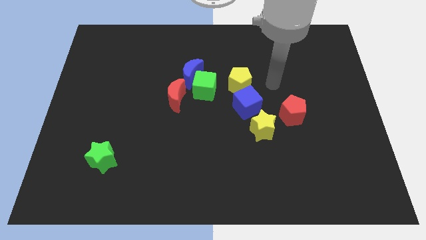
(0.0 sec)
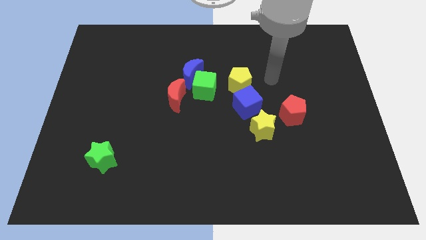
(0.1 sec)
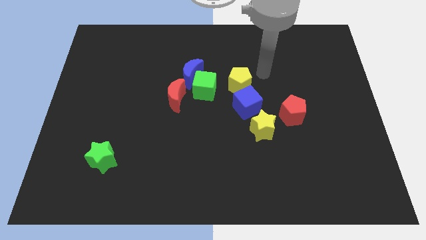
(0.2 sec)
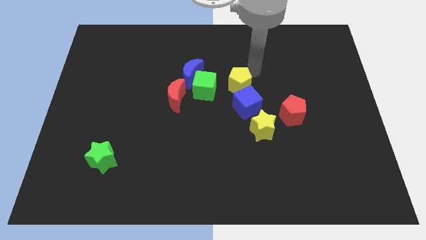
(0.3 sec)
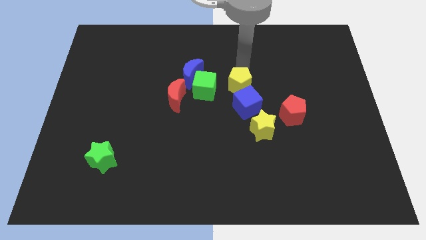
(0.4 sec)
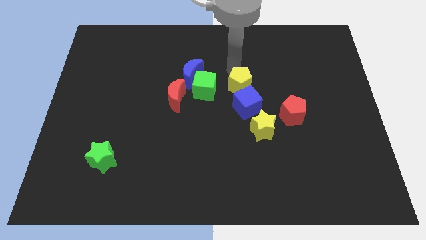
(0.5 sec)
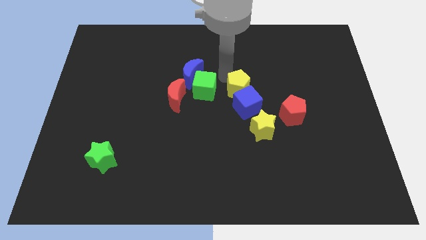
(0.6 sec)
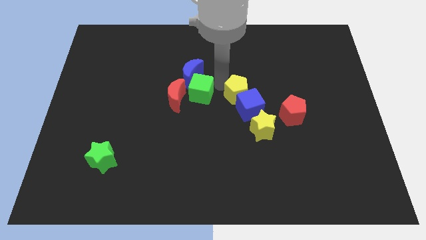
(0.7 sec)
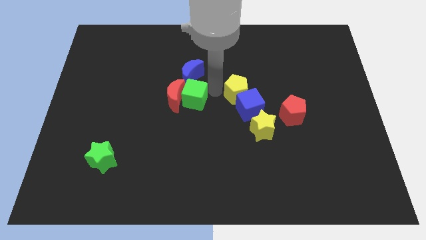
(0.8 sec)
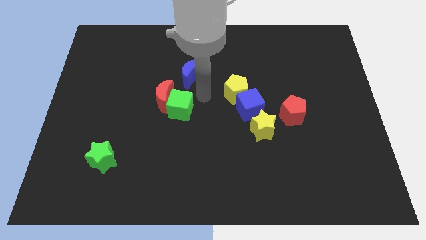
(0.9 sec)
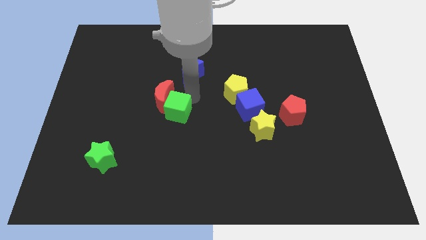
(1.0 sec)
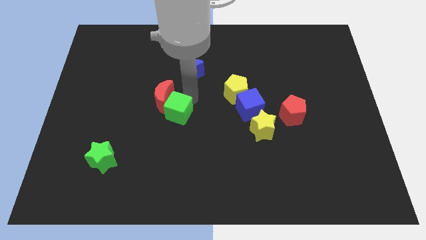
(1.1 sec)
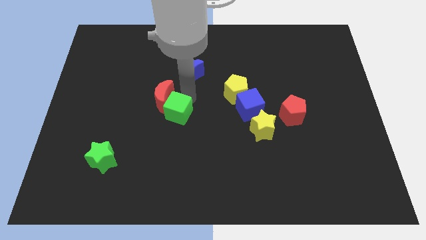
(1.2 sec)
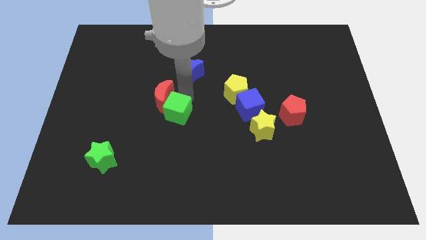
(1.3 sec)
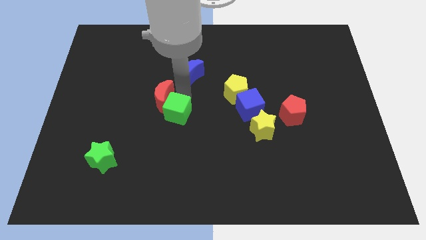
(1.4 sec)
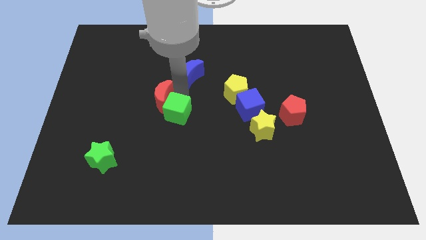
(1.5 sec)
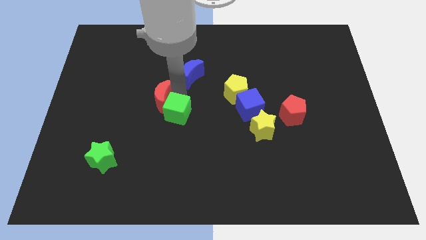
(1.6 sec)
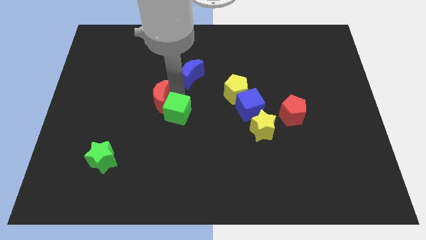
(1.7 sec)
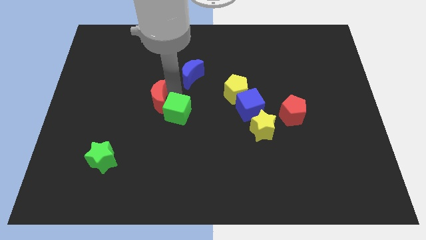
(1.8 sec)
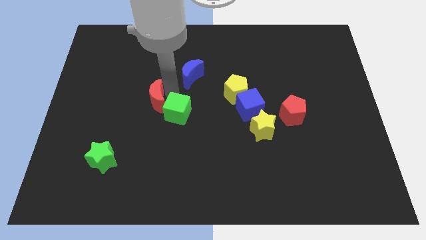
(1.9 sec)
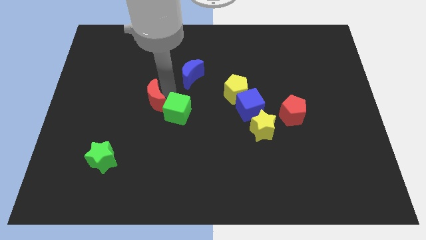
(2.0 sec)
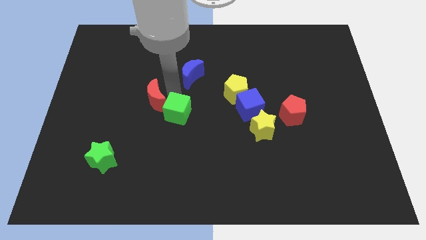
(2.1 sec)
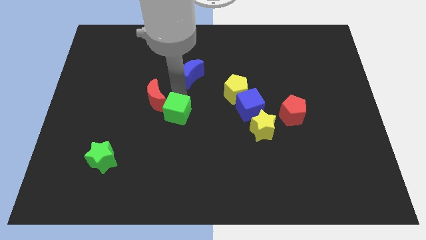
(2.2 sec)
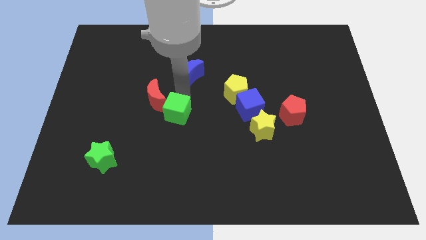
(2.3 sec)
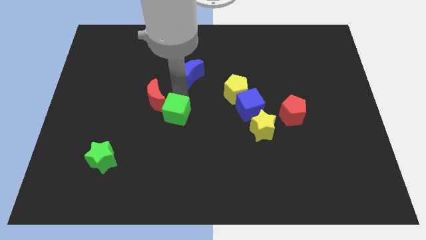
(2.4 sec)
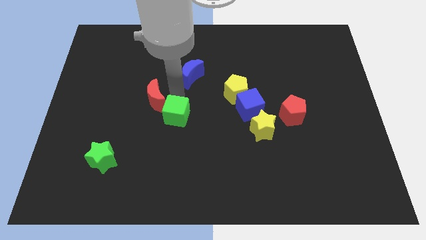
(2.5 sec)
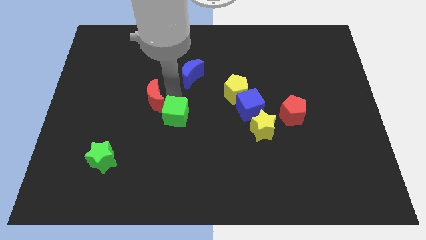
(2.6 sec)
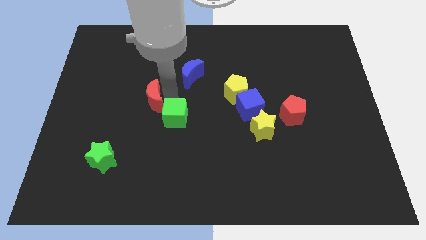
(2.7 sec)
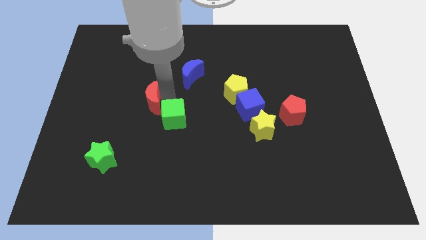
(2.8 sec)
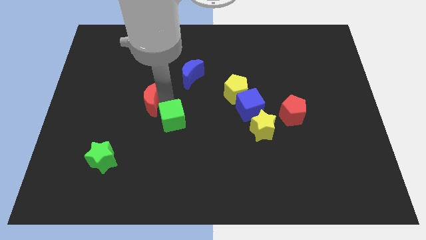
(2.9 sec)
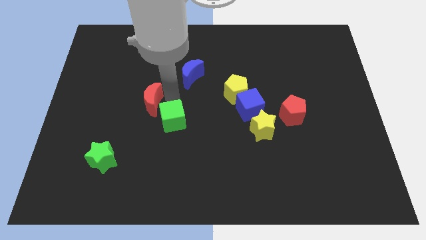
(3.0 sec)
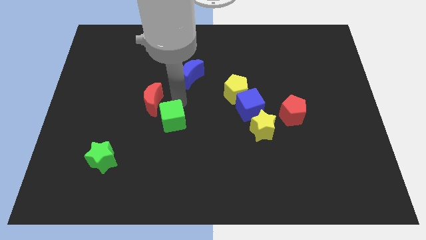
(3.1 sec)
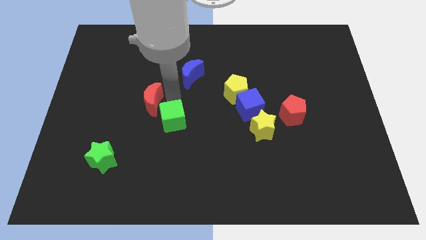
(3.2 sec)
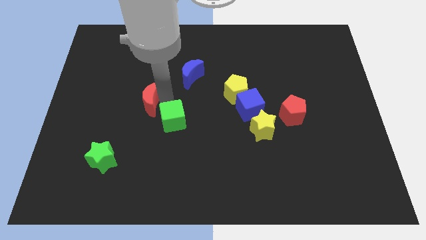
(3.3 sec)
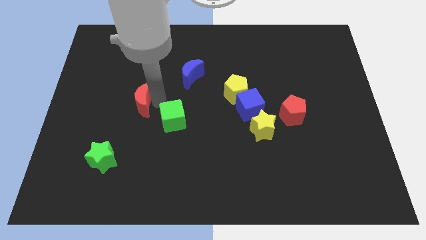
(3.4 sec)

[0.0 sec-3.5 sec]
move the red moon a little bit left

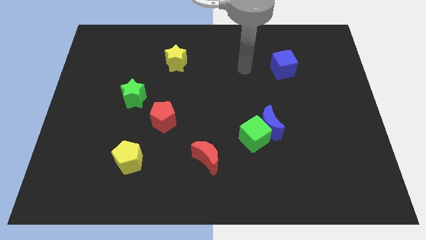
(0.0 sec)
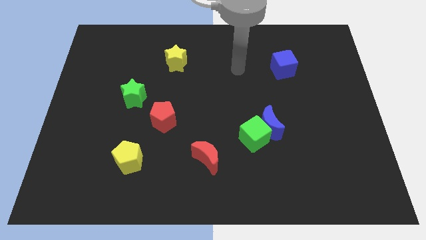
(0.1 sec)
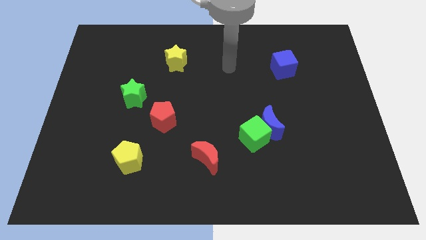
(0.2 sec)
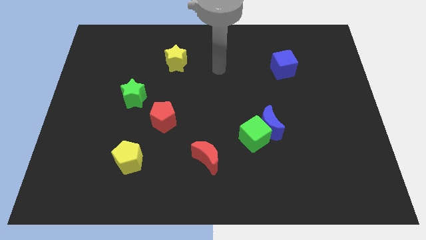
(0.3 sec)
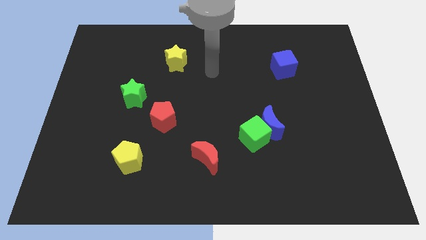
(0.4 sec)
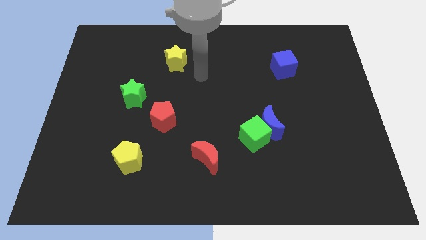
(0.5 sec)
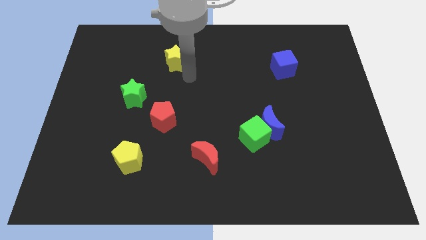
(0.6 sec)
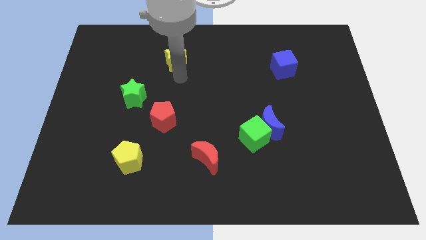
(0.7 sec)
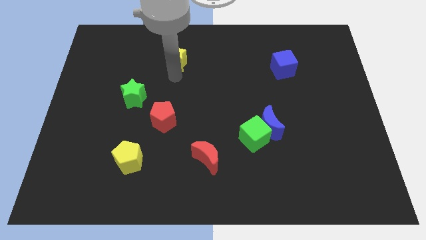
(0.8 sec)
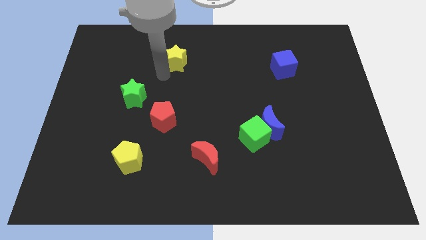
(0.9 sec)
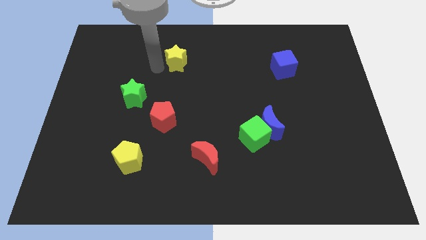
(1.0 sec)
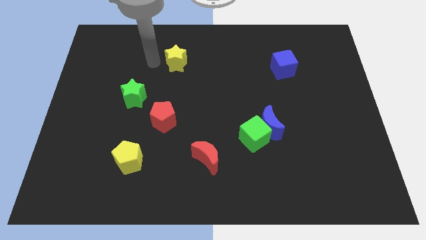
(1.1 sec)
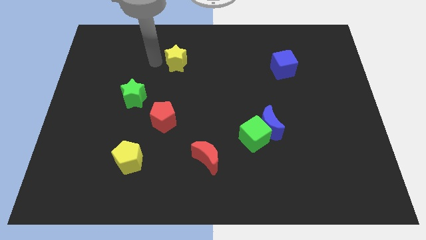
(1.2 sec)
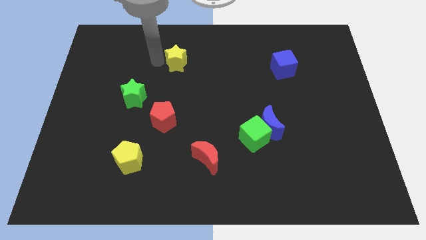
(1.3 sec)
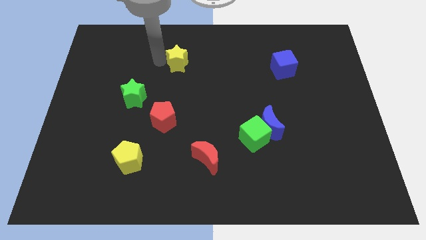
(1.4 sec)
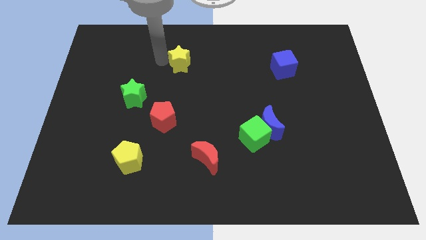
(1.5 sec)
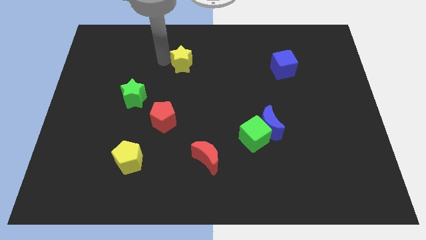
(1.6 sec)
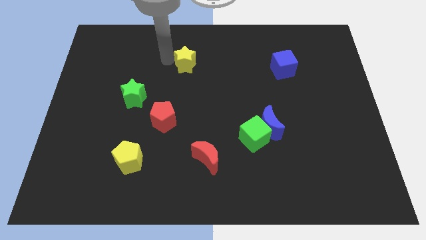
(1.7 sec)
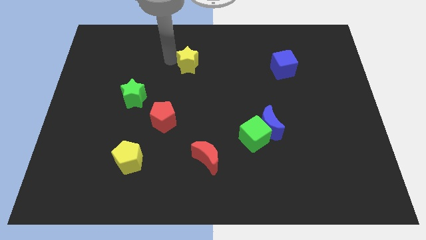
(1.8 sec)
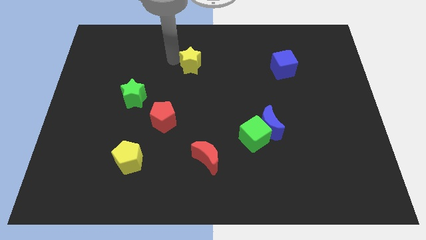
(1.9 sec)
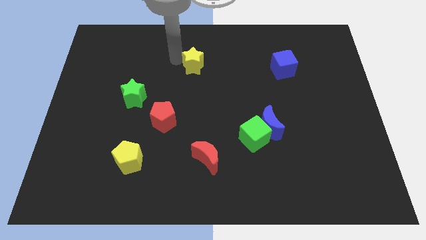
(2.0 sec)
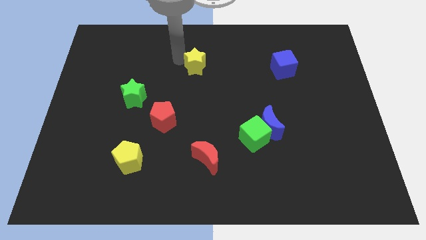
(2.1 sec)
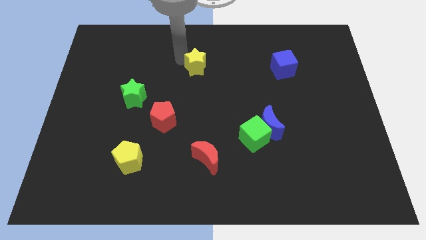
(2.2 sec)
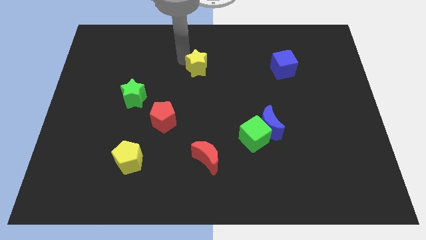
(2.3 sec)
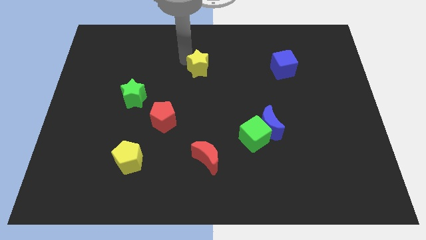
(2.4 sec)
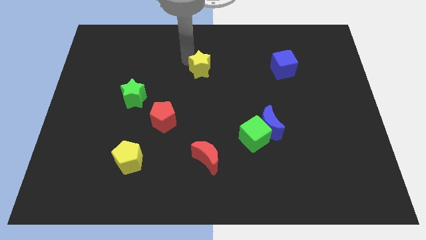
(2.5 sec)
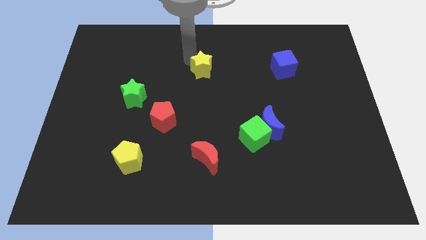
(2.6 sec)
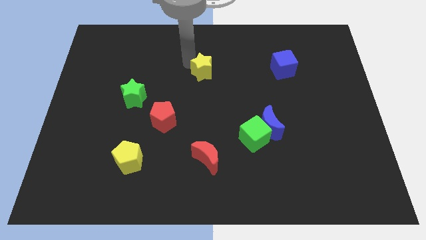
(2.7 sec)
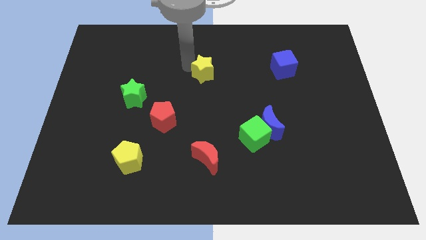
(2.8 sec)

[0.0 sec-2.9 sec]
slightly slide the yellow star to the right

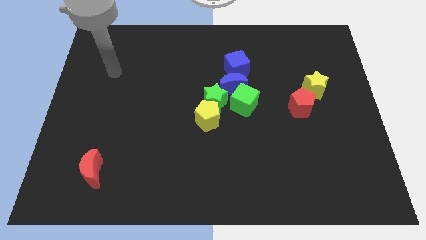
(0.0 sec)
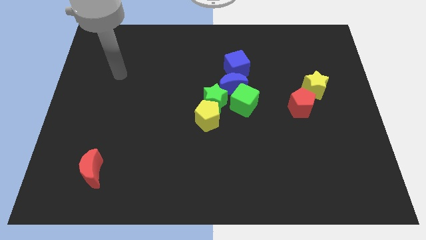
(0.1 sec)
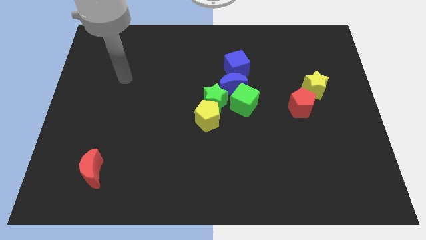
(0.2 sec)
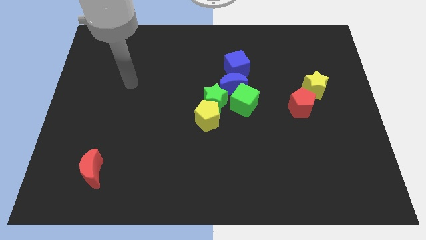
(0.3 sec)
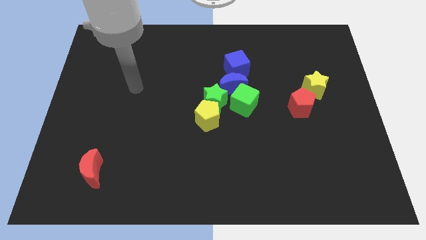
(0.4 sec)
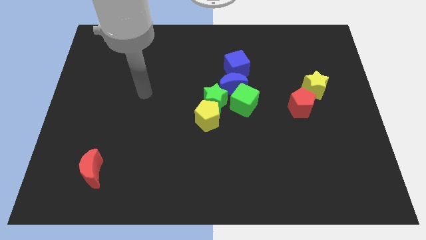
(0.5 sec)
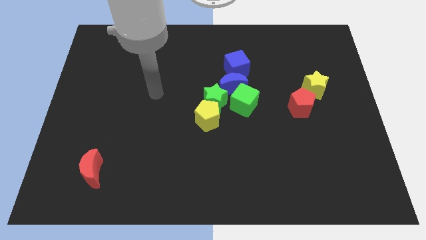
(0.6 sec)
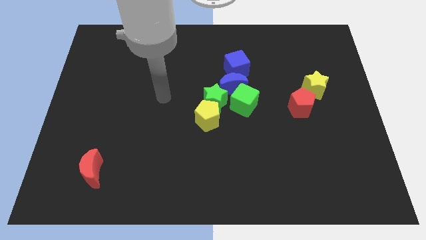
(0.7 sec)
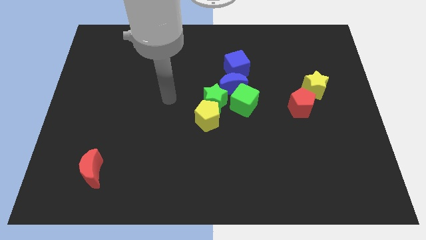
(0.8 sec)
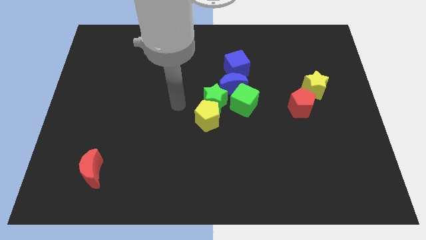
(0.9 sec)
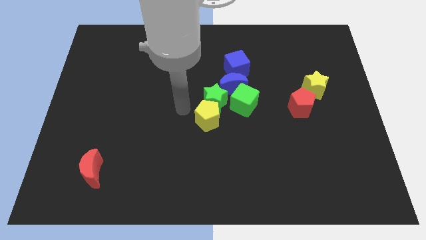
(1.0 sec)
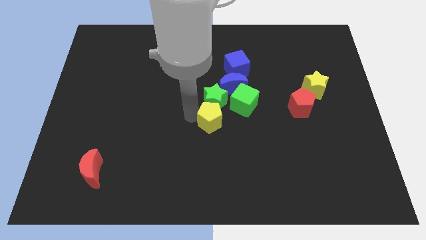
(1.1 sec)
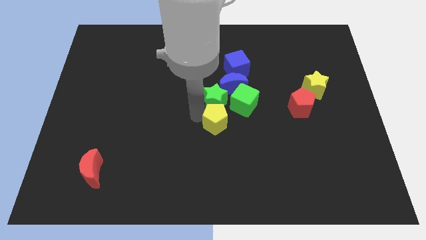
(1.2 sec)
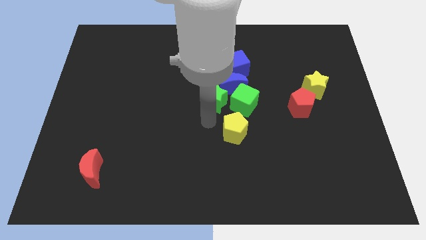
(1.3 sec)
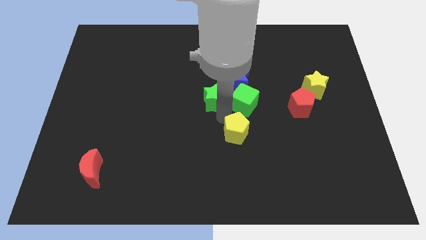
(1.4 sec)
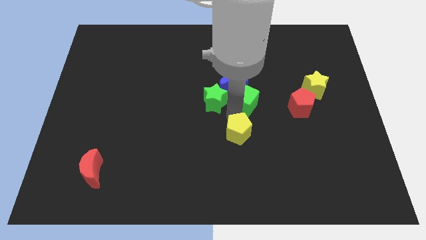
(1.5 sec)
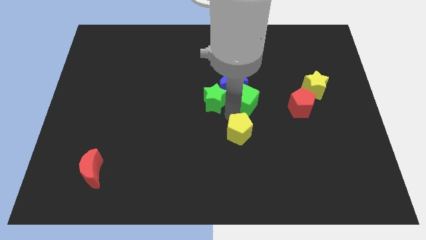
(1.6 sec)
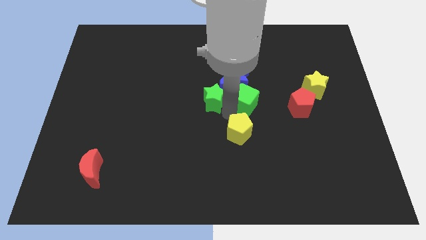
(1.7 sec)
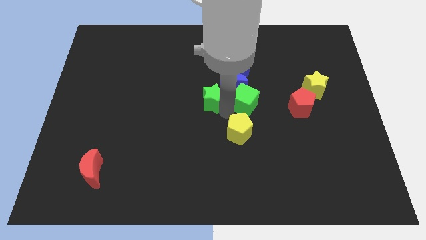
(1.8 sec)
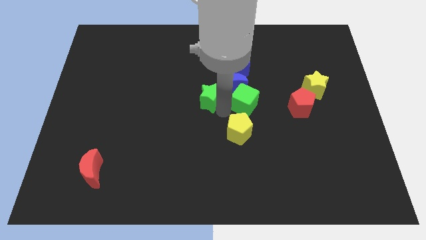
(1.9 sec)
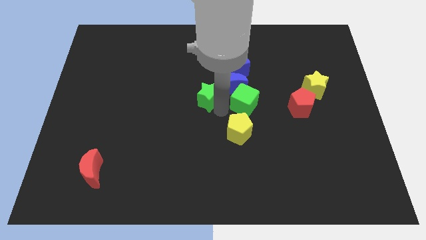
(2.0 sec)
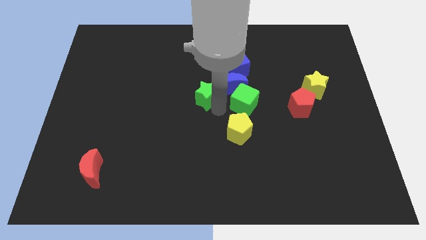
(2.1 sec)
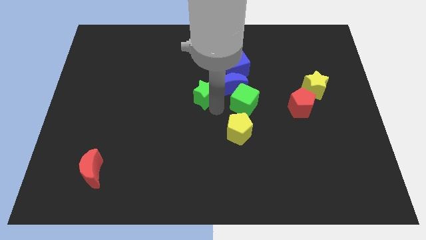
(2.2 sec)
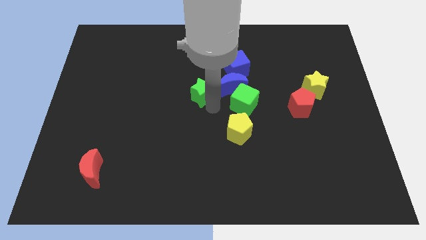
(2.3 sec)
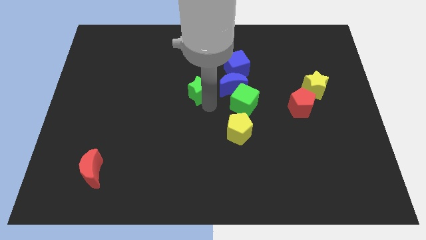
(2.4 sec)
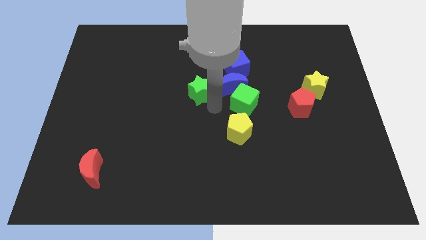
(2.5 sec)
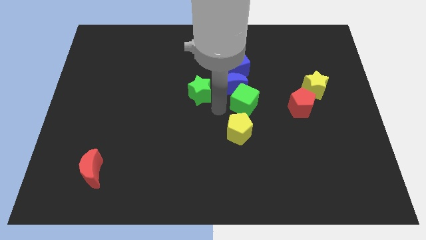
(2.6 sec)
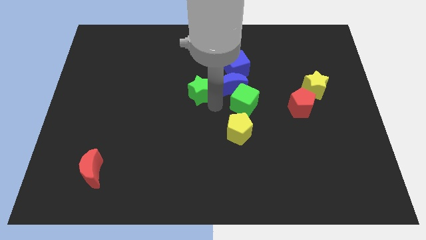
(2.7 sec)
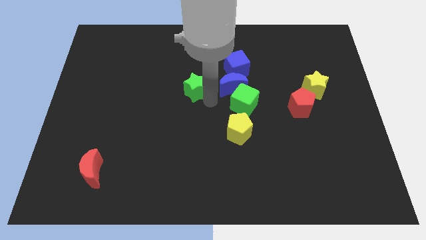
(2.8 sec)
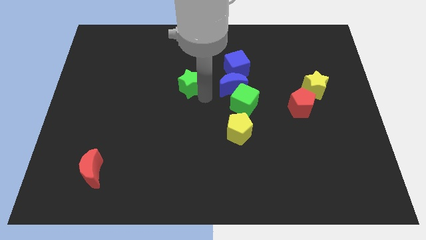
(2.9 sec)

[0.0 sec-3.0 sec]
move the green star somewhat upwards and left diagonally
